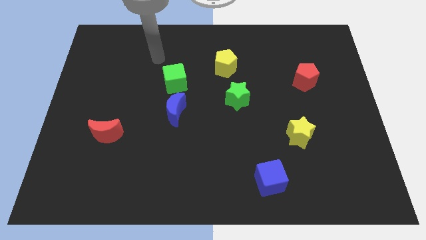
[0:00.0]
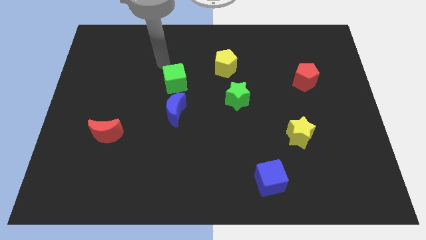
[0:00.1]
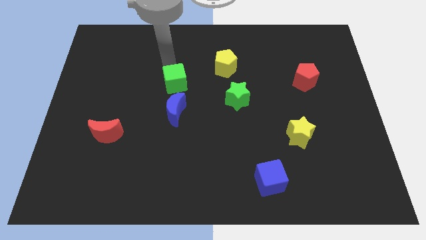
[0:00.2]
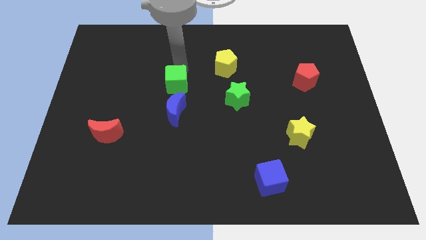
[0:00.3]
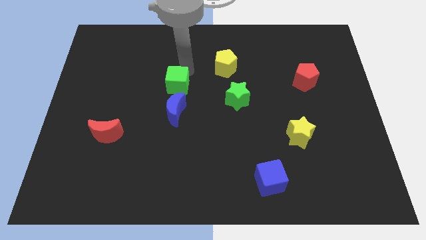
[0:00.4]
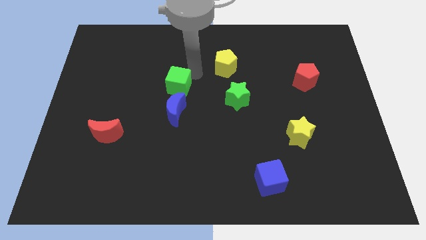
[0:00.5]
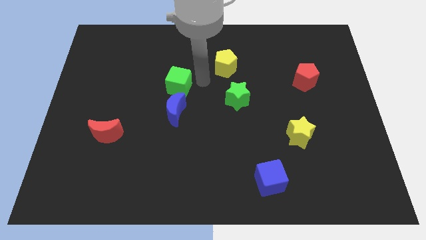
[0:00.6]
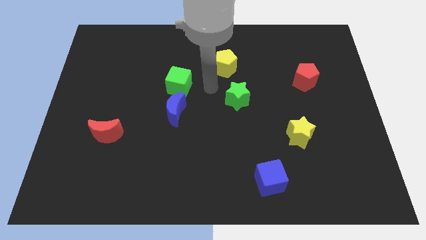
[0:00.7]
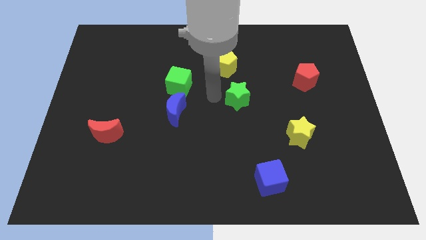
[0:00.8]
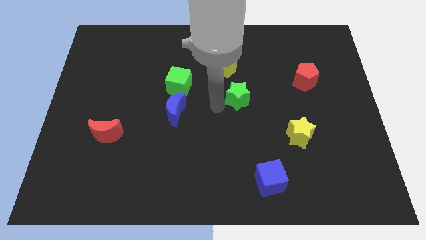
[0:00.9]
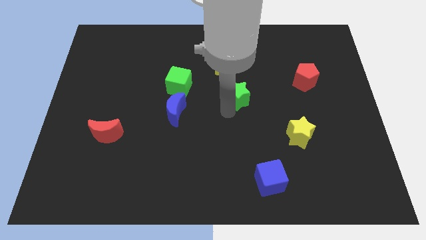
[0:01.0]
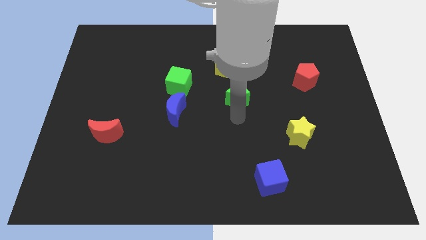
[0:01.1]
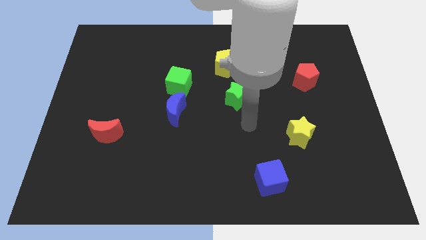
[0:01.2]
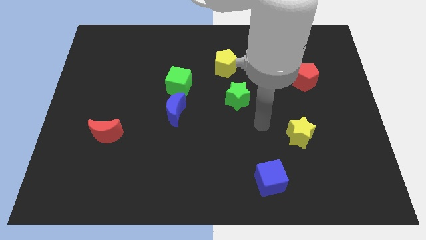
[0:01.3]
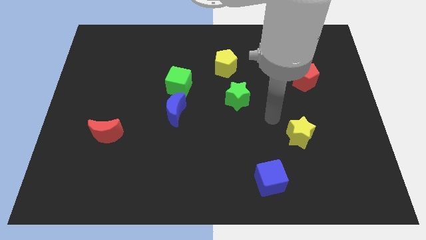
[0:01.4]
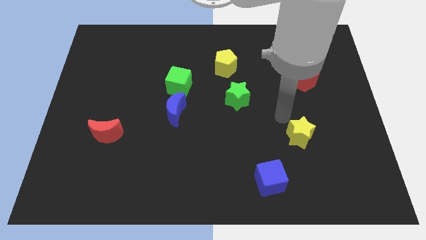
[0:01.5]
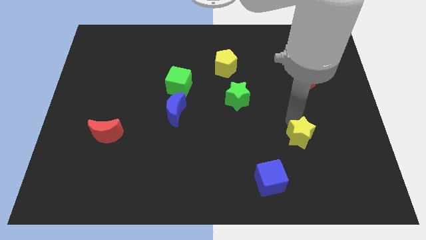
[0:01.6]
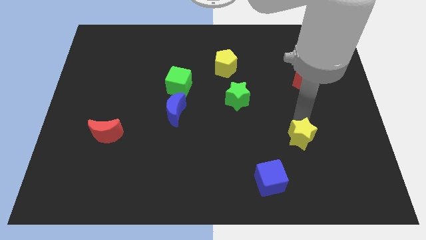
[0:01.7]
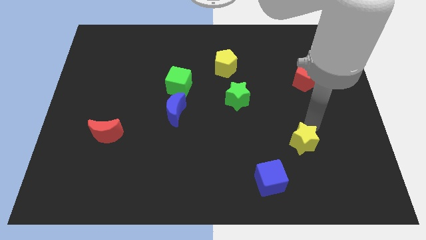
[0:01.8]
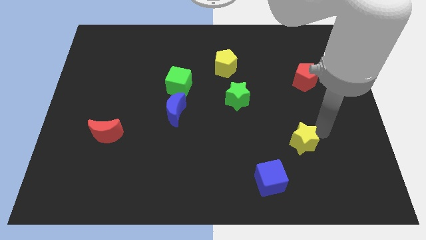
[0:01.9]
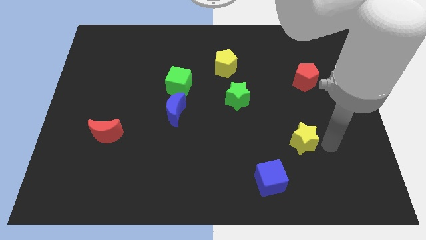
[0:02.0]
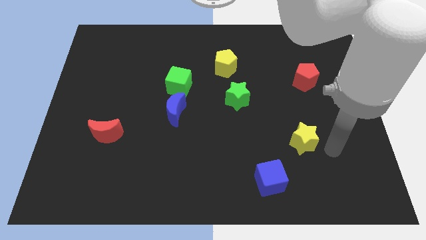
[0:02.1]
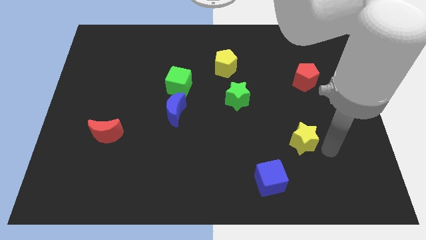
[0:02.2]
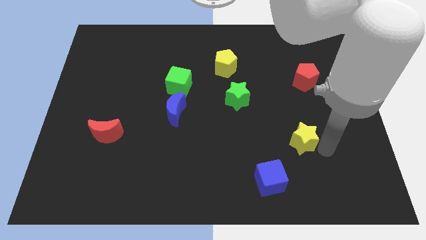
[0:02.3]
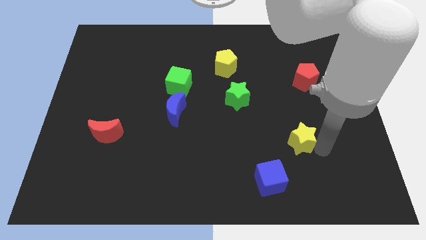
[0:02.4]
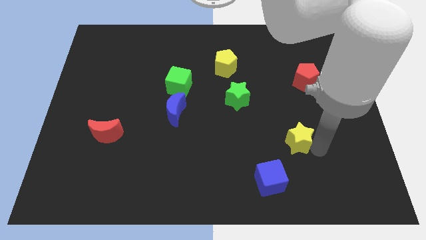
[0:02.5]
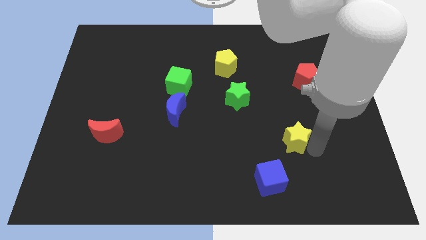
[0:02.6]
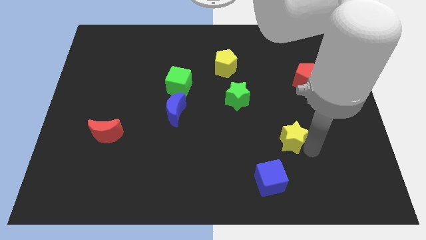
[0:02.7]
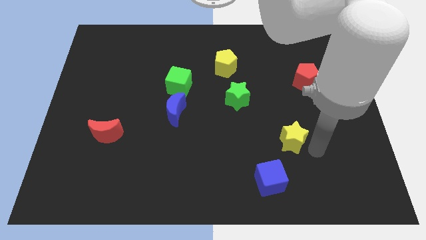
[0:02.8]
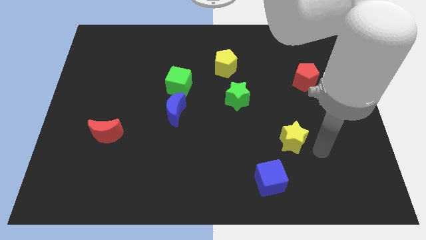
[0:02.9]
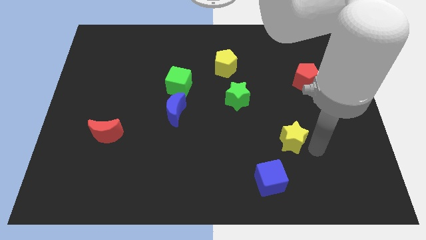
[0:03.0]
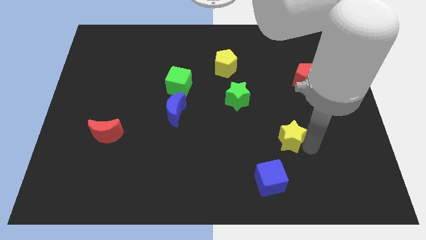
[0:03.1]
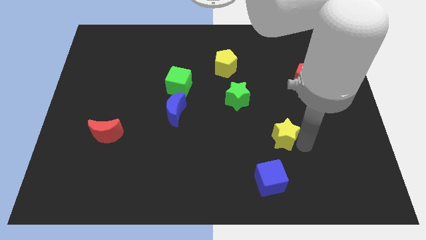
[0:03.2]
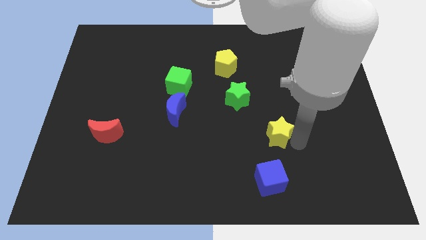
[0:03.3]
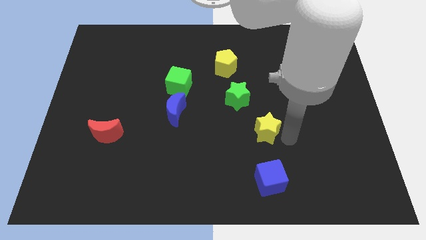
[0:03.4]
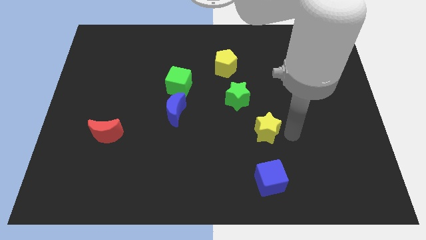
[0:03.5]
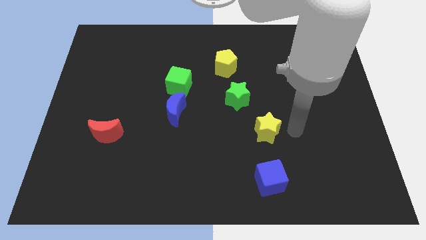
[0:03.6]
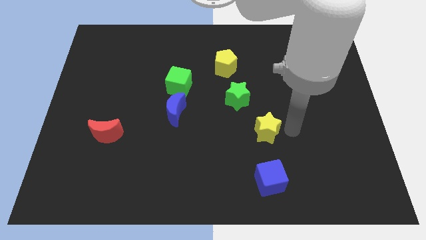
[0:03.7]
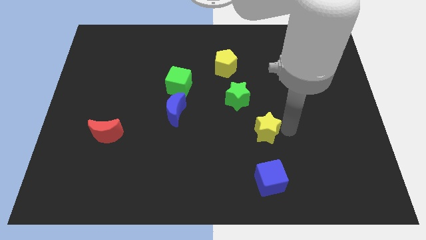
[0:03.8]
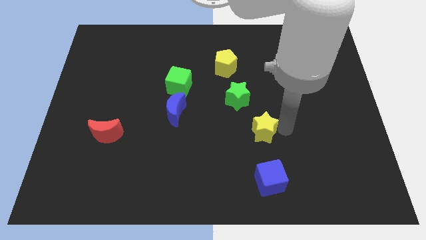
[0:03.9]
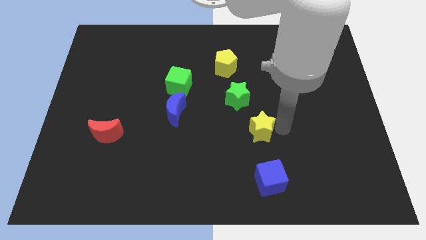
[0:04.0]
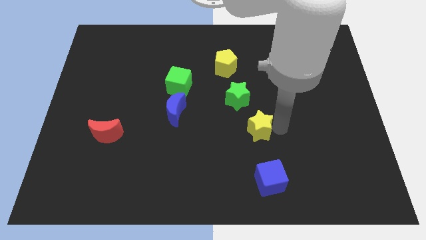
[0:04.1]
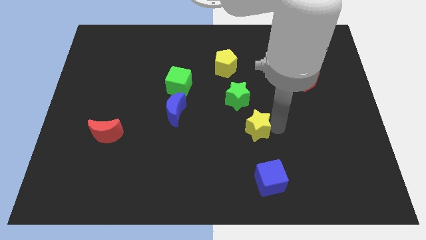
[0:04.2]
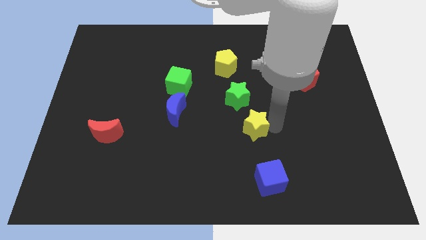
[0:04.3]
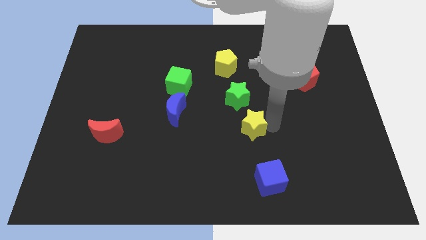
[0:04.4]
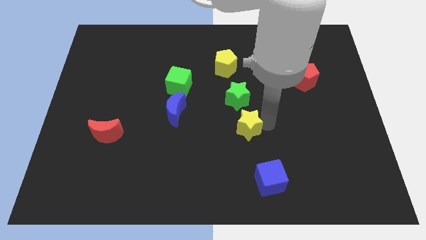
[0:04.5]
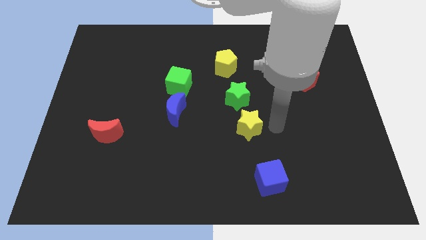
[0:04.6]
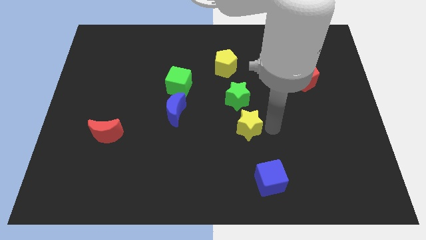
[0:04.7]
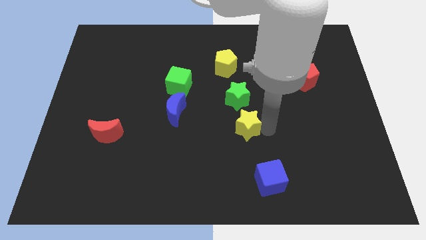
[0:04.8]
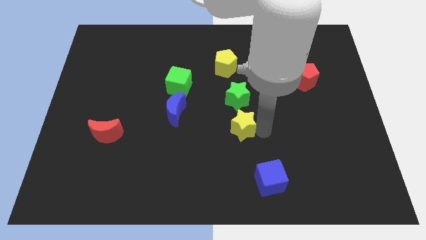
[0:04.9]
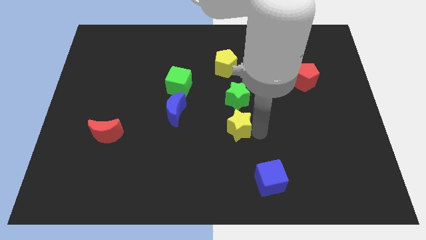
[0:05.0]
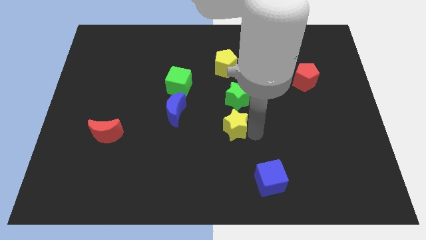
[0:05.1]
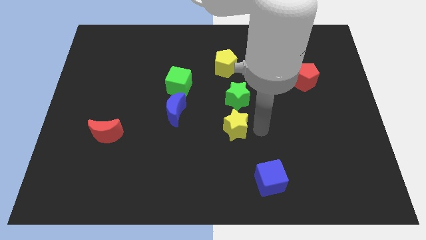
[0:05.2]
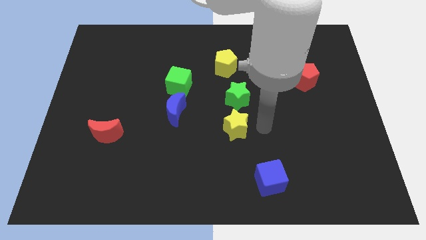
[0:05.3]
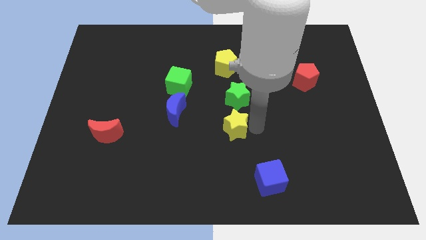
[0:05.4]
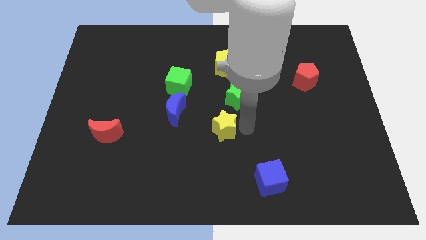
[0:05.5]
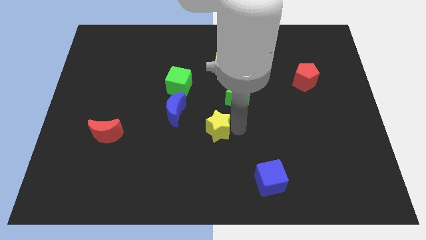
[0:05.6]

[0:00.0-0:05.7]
put the yellow star to the bottom right of the blue moon

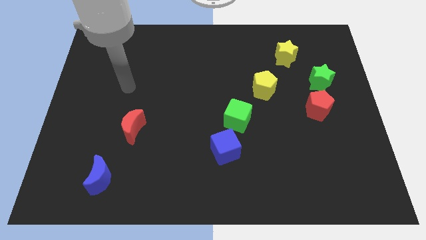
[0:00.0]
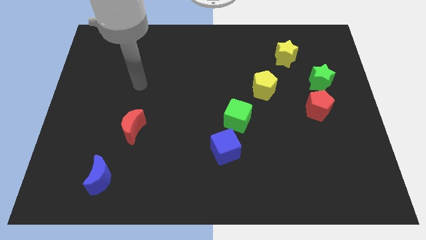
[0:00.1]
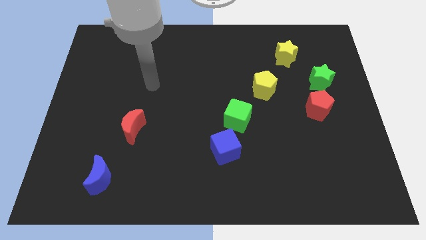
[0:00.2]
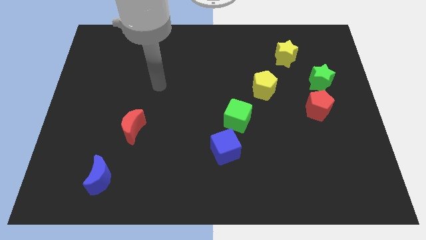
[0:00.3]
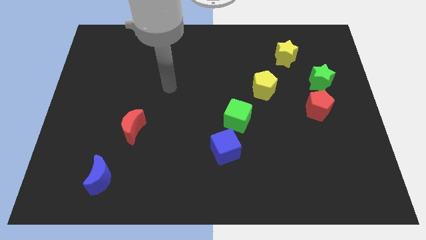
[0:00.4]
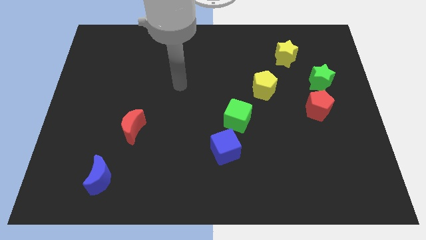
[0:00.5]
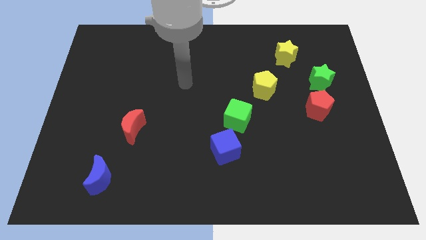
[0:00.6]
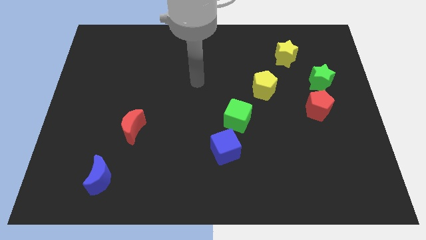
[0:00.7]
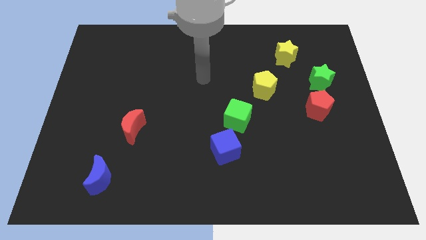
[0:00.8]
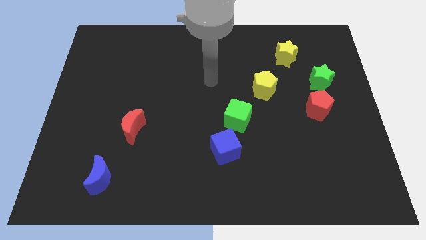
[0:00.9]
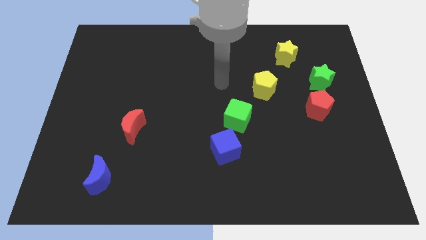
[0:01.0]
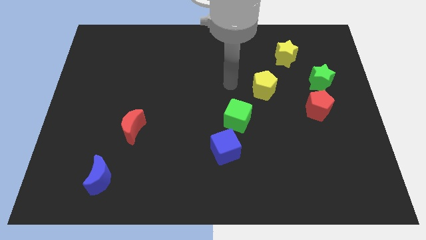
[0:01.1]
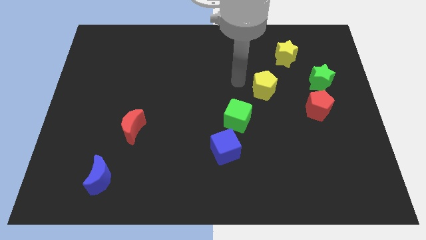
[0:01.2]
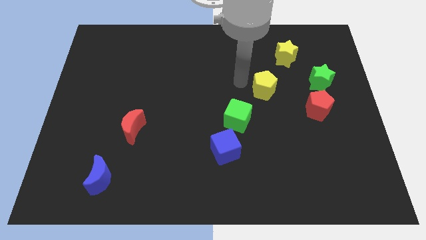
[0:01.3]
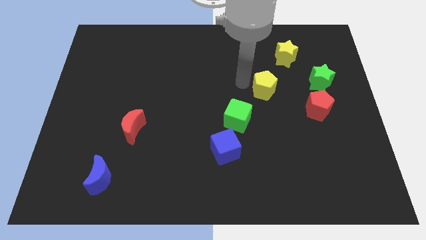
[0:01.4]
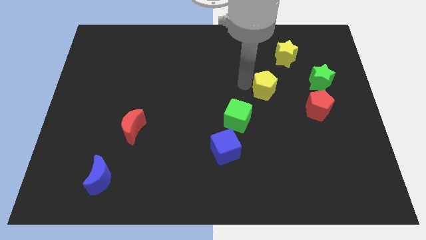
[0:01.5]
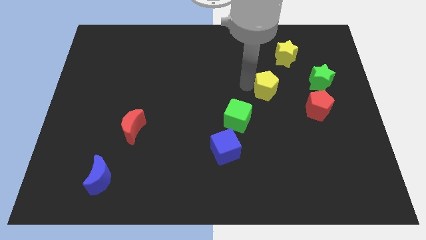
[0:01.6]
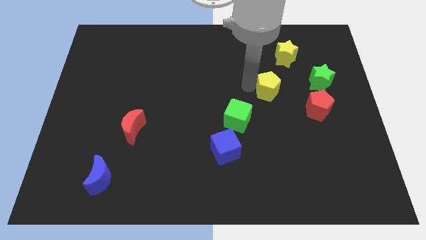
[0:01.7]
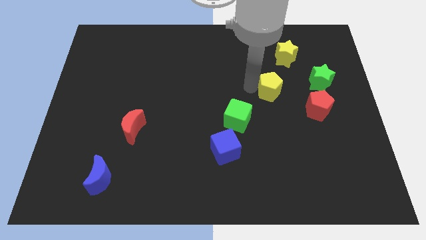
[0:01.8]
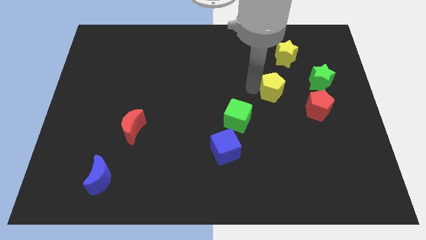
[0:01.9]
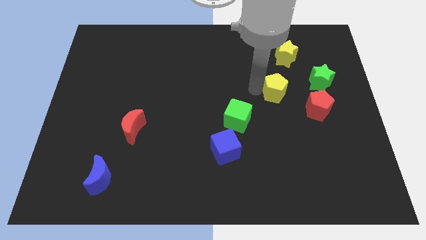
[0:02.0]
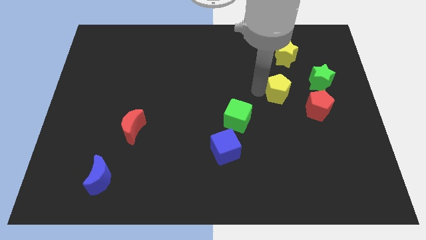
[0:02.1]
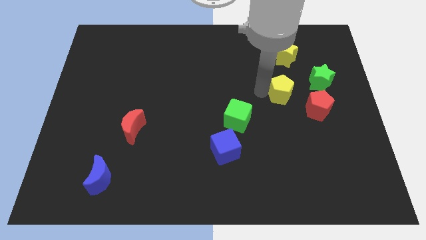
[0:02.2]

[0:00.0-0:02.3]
slide the yellow pentagon diagonally down and to the left of the green star
